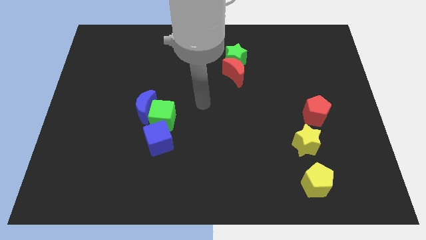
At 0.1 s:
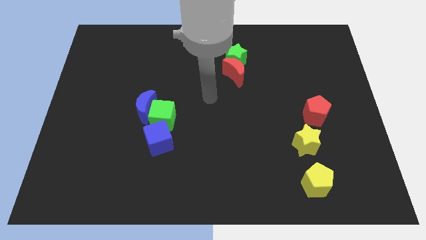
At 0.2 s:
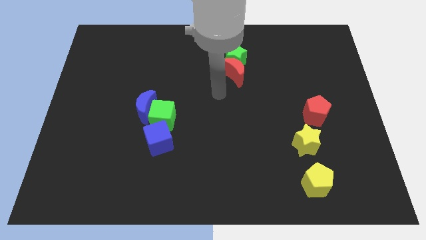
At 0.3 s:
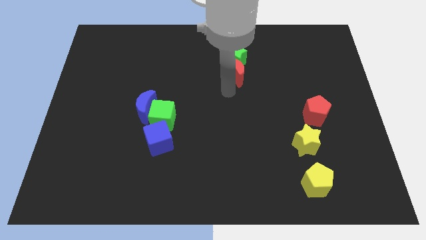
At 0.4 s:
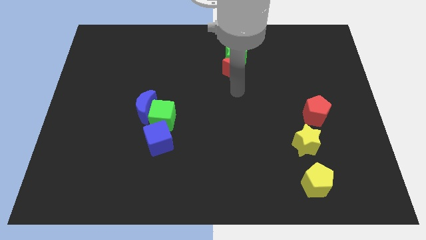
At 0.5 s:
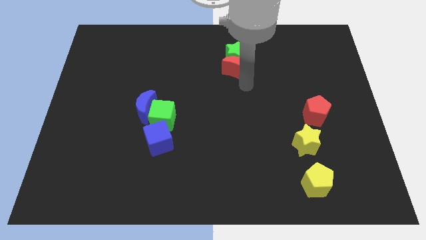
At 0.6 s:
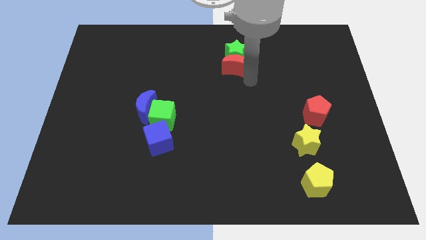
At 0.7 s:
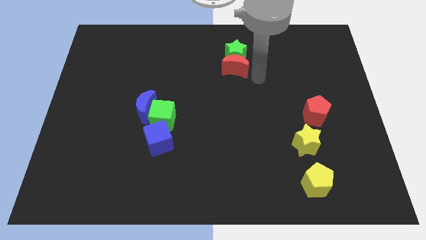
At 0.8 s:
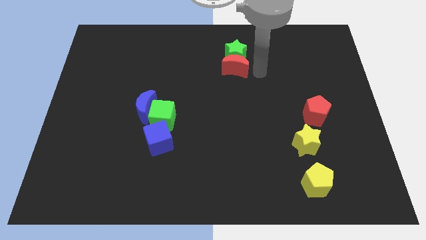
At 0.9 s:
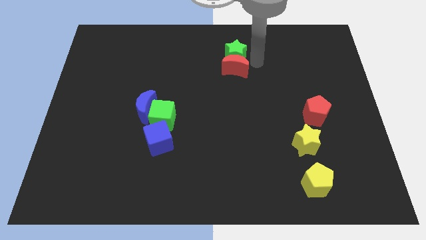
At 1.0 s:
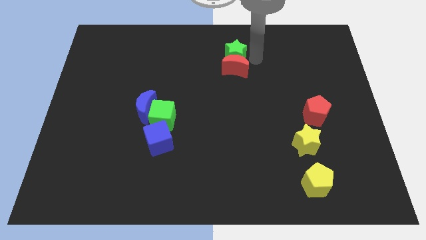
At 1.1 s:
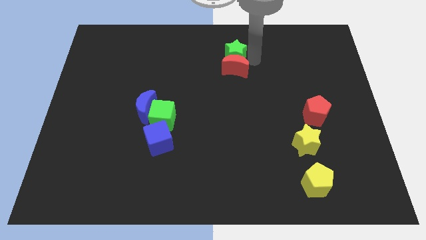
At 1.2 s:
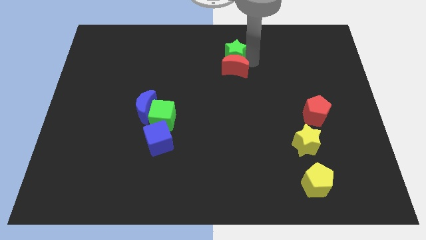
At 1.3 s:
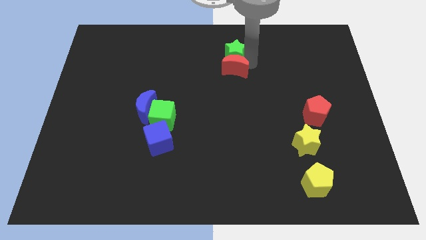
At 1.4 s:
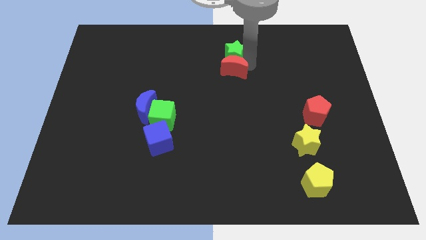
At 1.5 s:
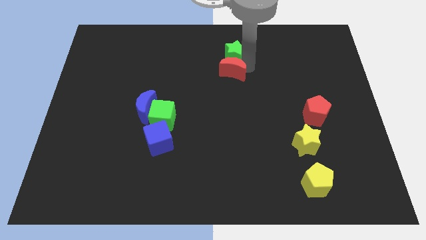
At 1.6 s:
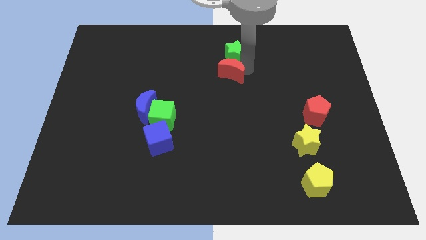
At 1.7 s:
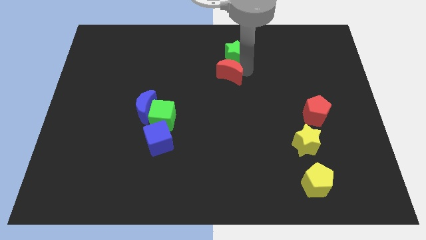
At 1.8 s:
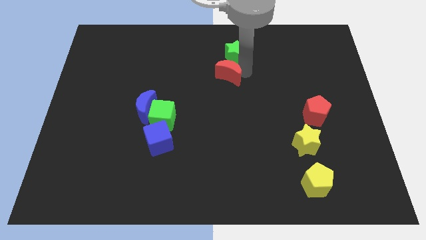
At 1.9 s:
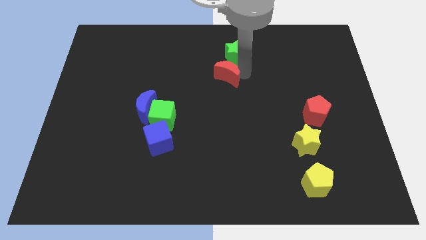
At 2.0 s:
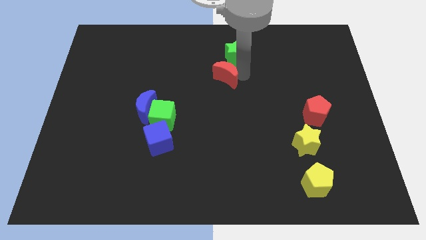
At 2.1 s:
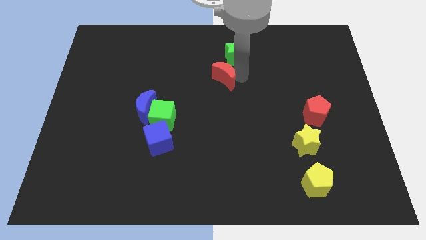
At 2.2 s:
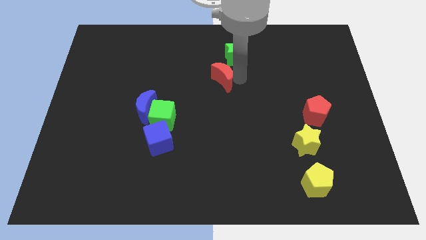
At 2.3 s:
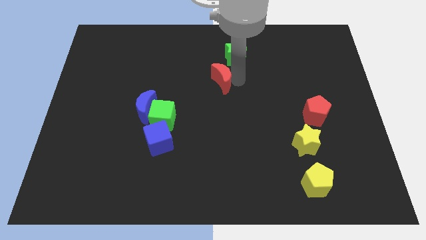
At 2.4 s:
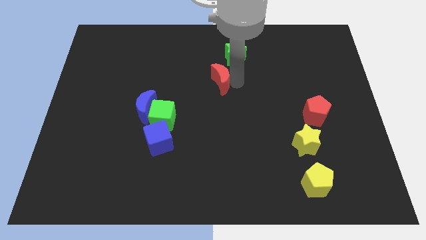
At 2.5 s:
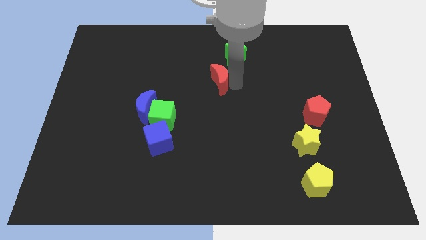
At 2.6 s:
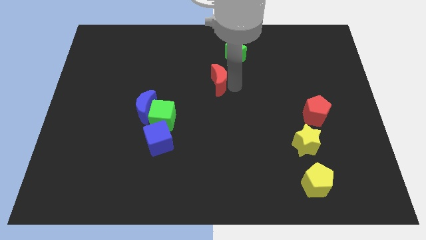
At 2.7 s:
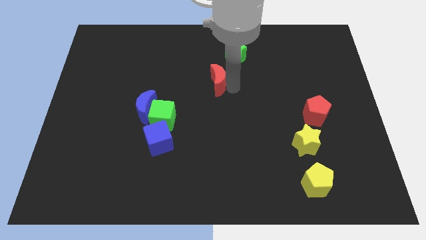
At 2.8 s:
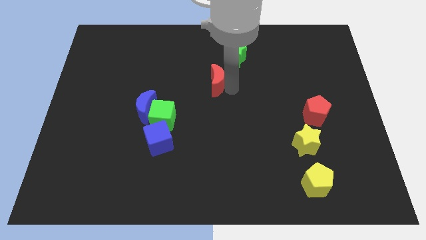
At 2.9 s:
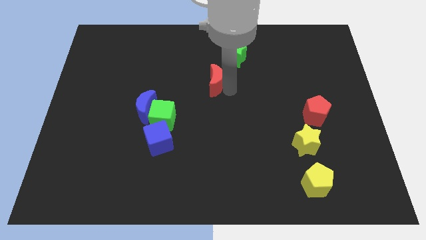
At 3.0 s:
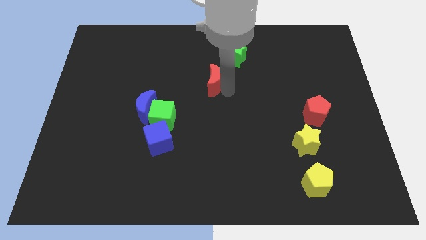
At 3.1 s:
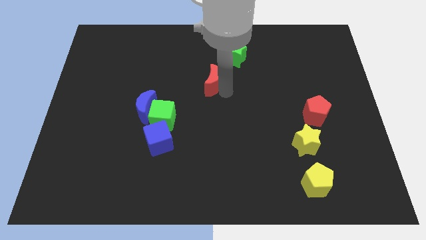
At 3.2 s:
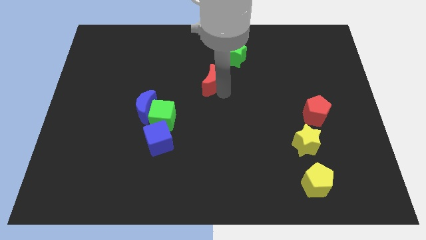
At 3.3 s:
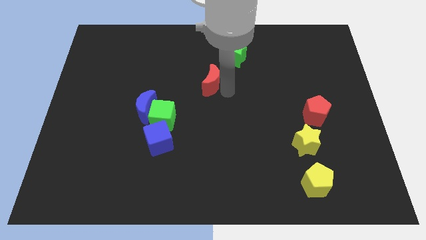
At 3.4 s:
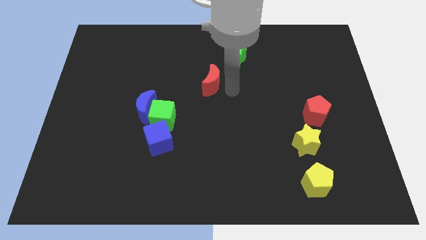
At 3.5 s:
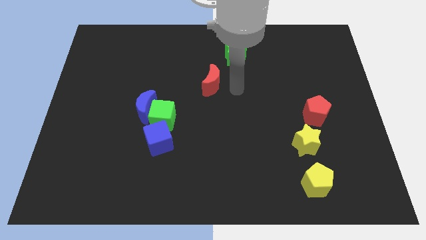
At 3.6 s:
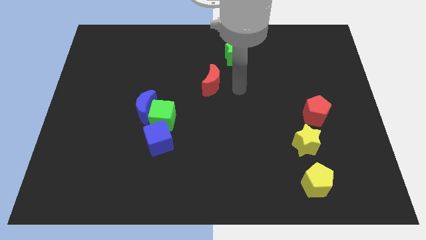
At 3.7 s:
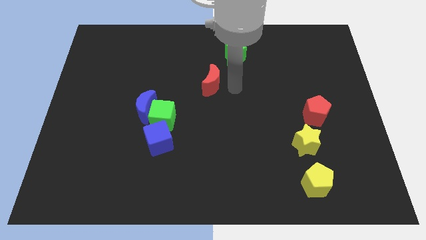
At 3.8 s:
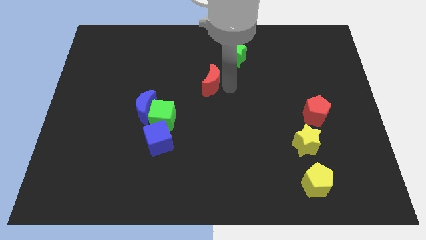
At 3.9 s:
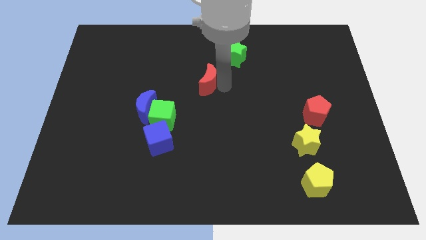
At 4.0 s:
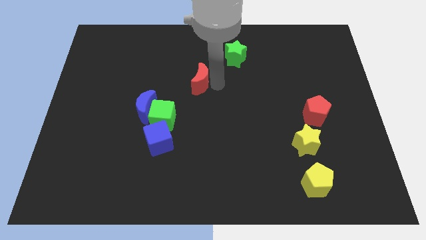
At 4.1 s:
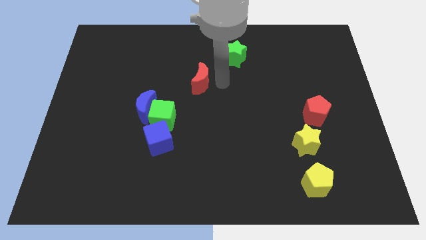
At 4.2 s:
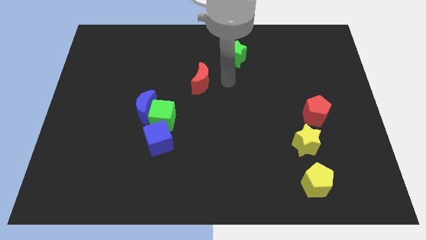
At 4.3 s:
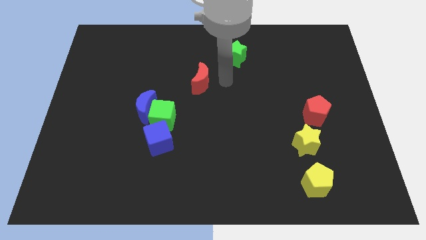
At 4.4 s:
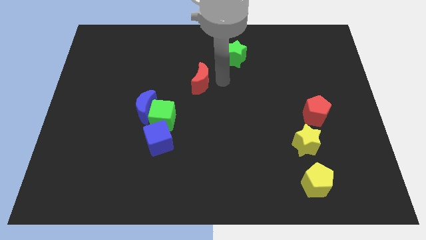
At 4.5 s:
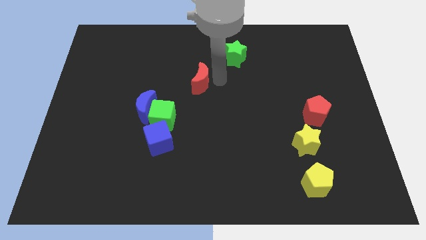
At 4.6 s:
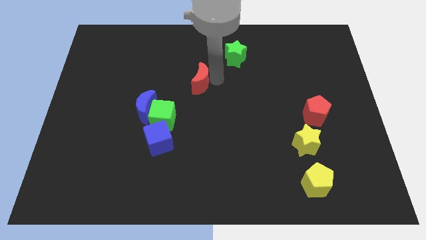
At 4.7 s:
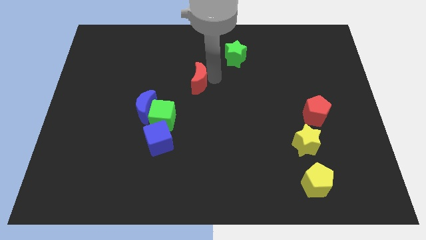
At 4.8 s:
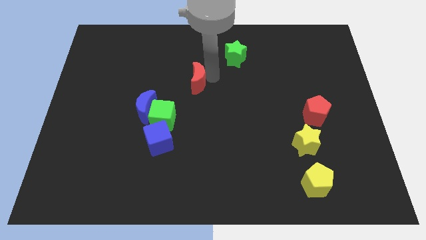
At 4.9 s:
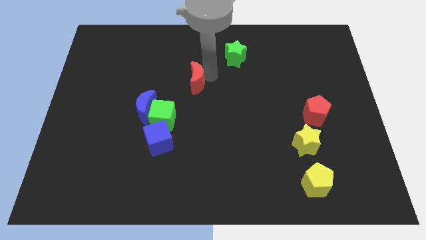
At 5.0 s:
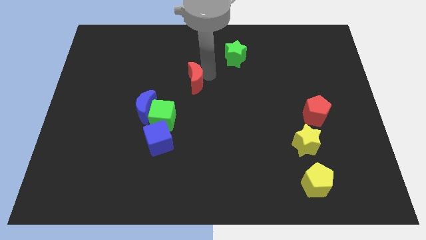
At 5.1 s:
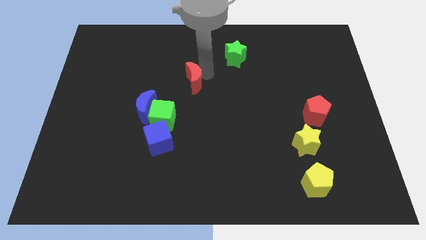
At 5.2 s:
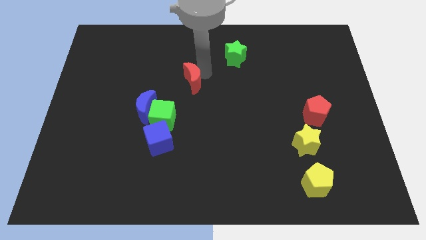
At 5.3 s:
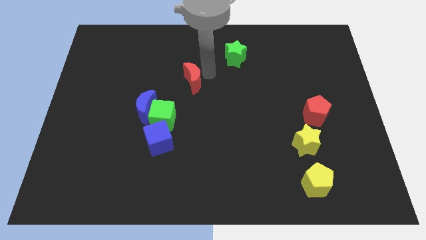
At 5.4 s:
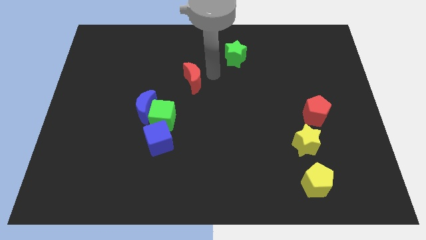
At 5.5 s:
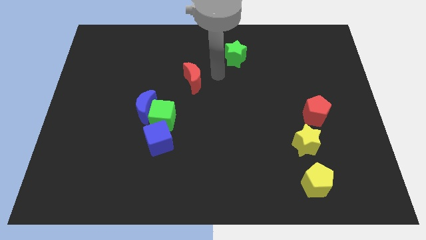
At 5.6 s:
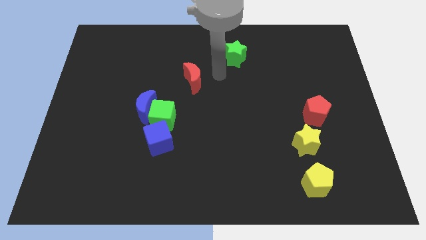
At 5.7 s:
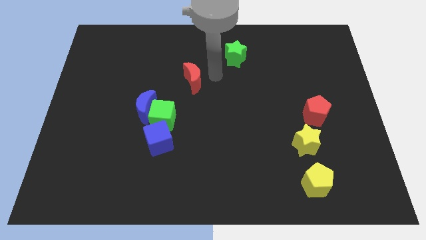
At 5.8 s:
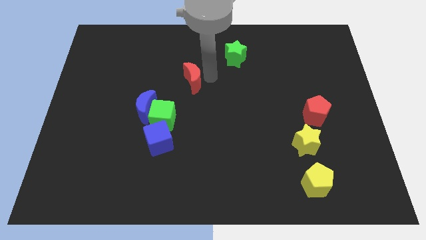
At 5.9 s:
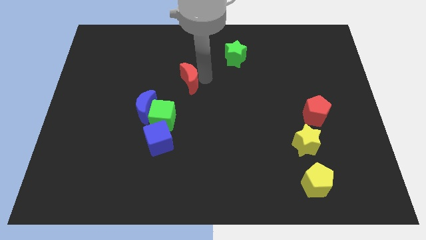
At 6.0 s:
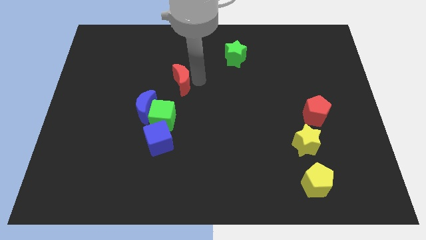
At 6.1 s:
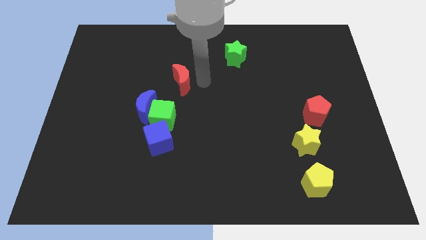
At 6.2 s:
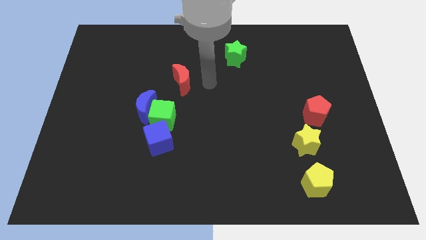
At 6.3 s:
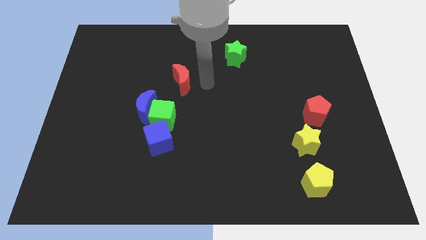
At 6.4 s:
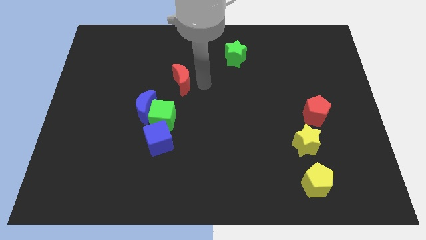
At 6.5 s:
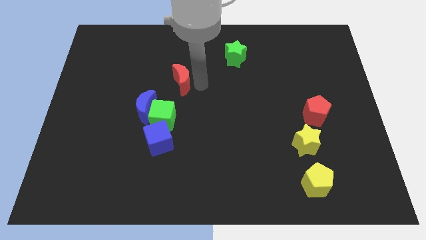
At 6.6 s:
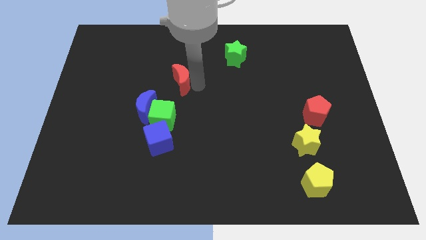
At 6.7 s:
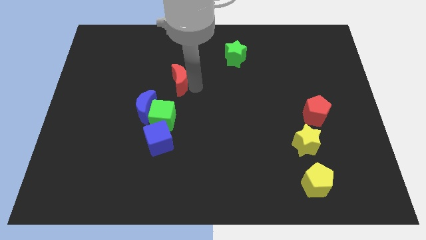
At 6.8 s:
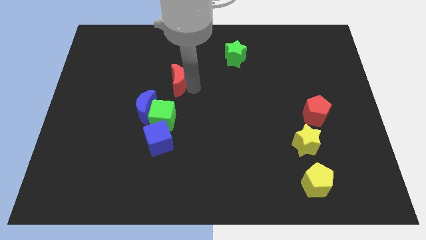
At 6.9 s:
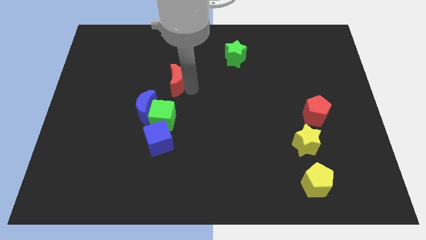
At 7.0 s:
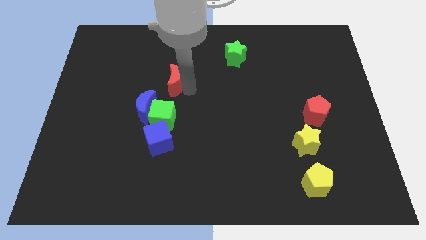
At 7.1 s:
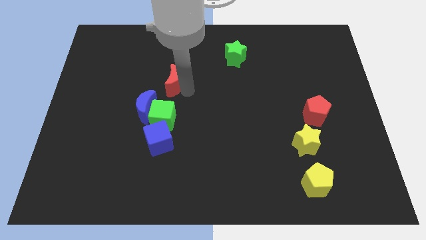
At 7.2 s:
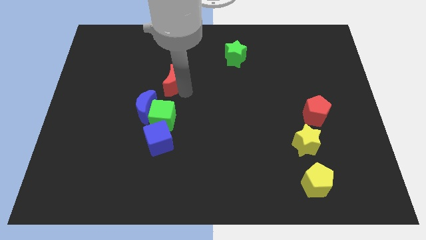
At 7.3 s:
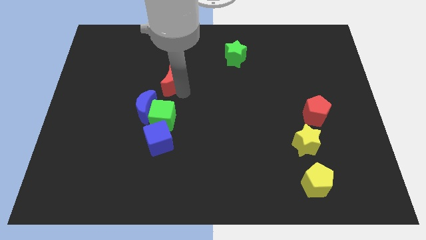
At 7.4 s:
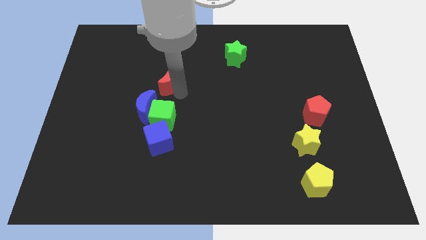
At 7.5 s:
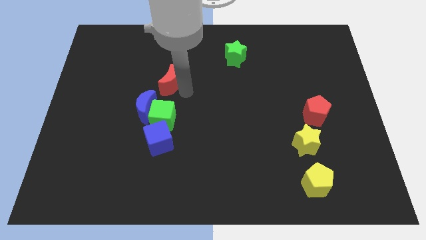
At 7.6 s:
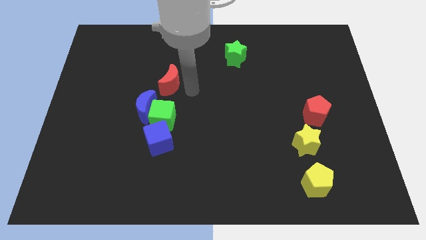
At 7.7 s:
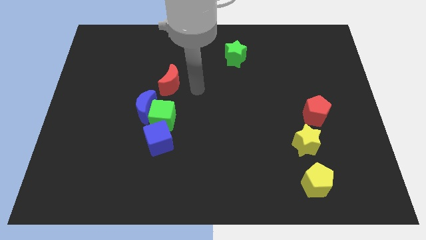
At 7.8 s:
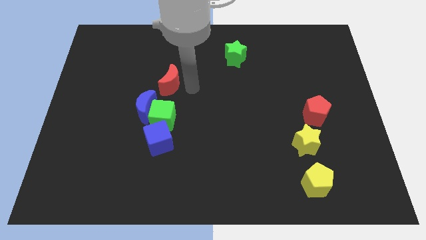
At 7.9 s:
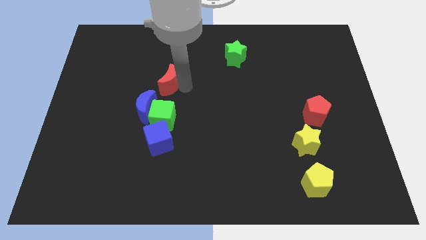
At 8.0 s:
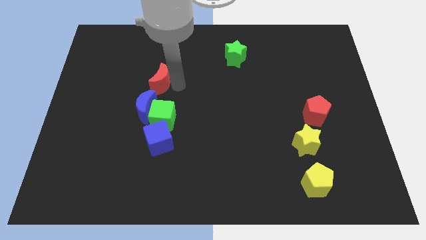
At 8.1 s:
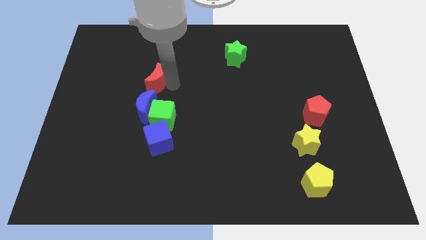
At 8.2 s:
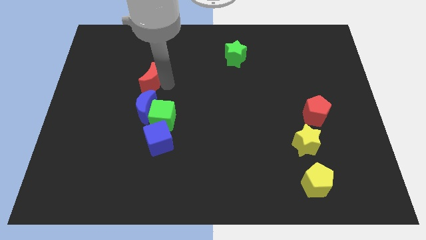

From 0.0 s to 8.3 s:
push the red moon to the left
